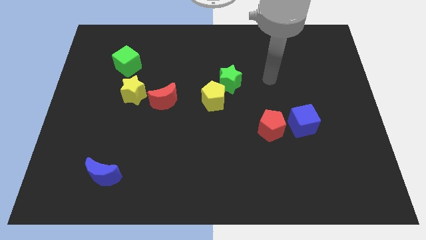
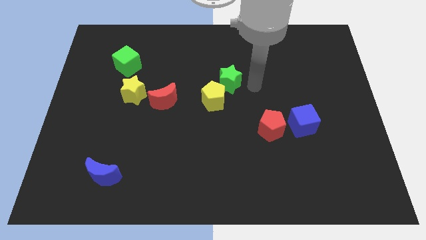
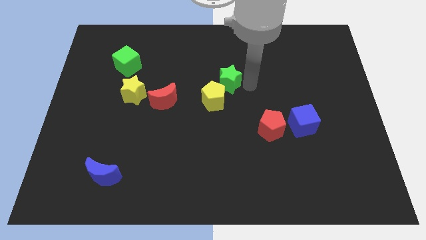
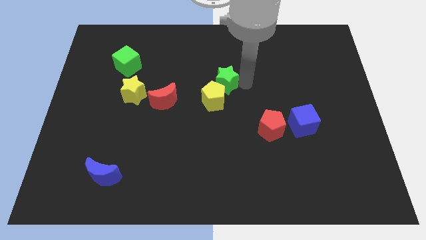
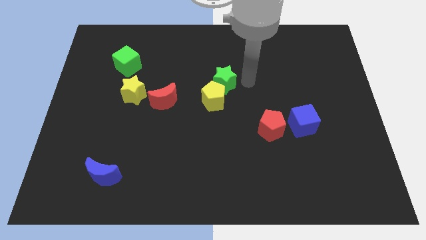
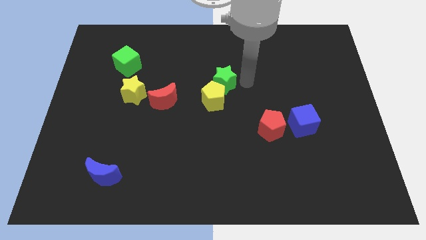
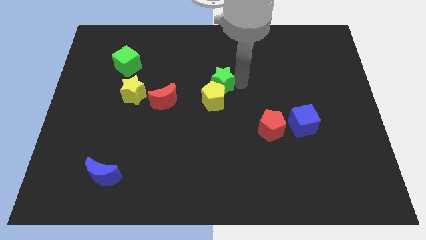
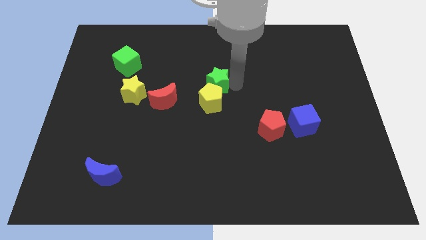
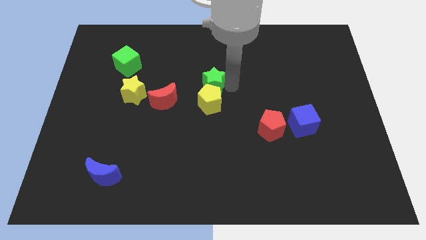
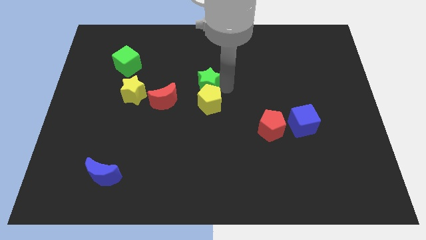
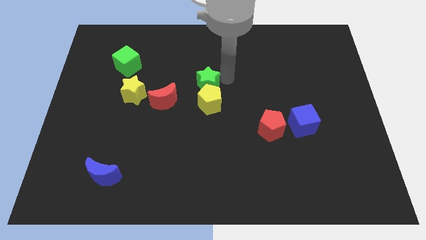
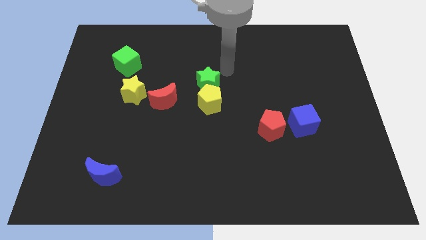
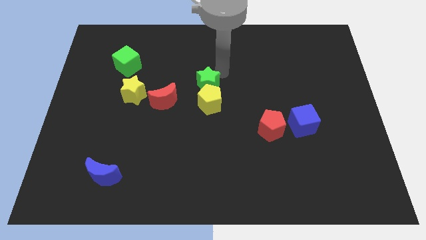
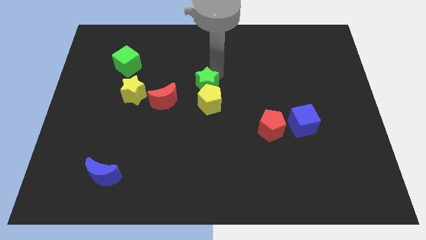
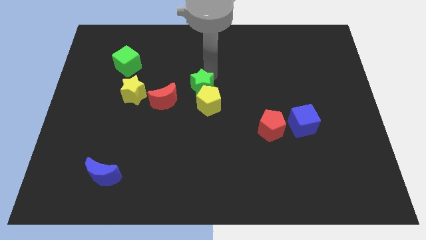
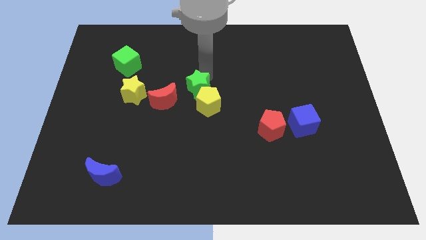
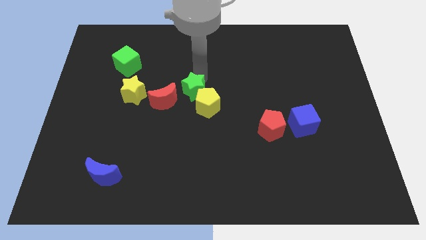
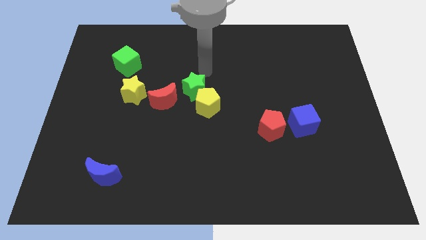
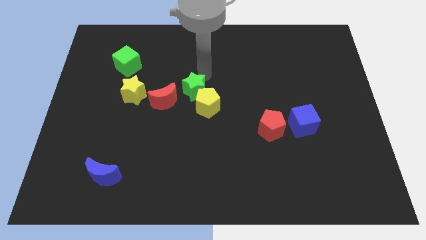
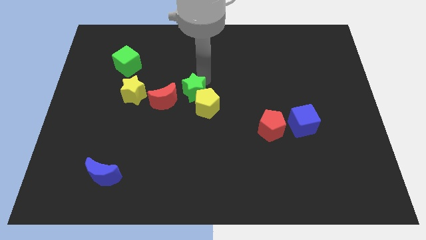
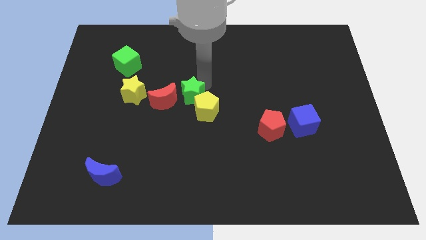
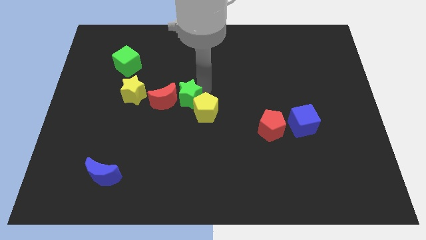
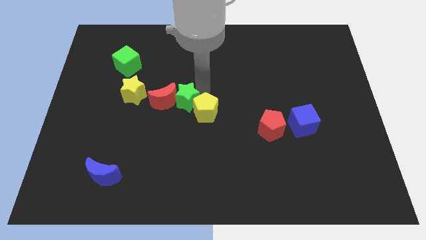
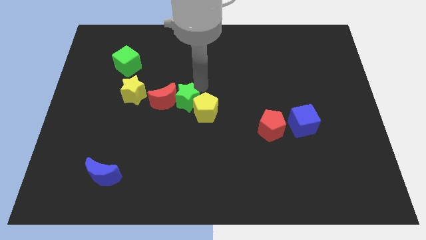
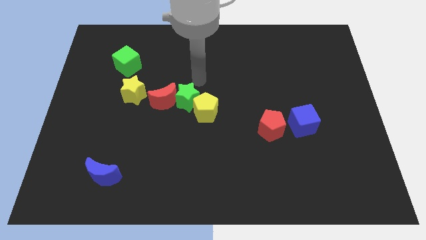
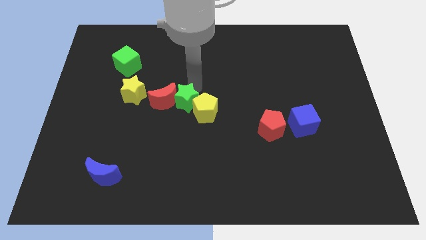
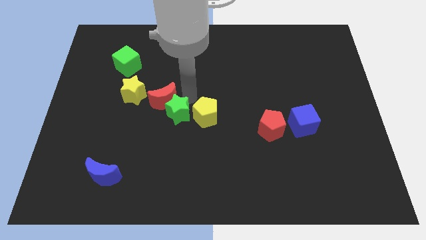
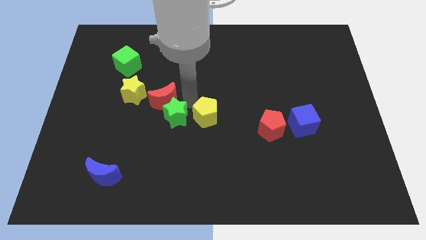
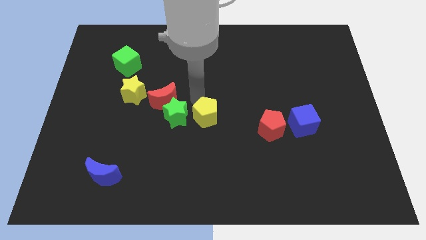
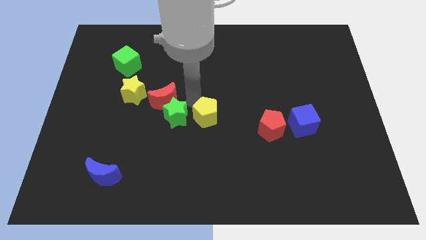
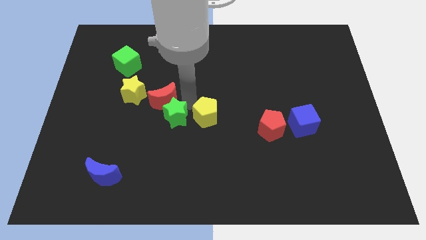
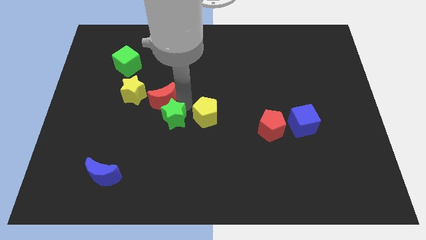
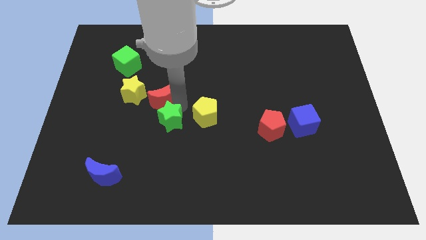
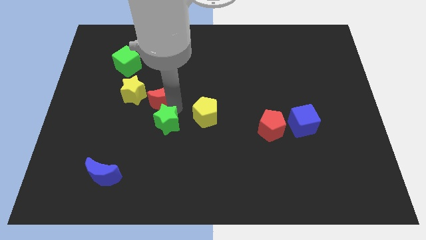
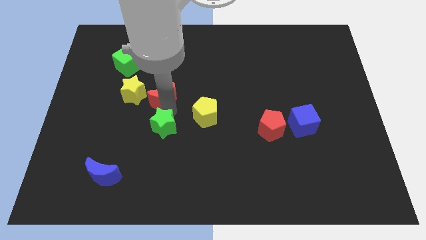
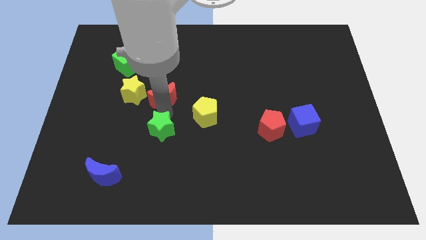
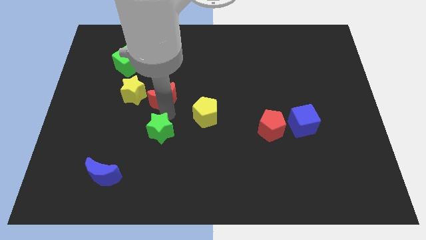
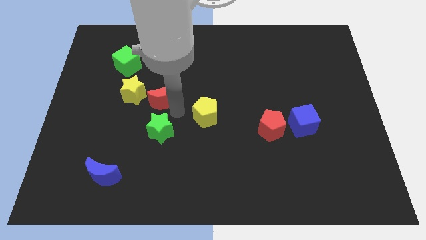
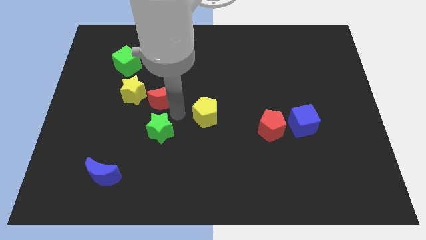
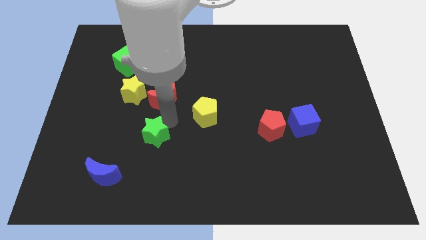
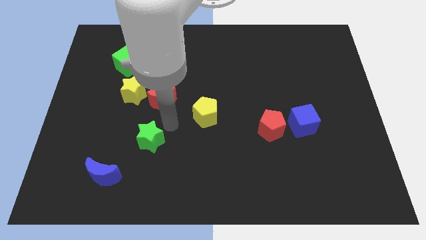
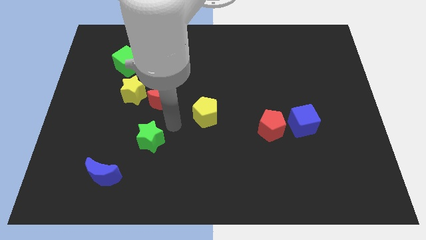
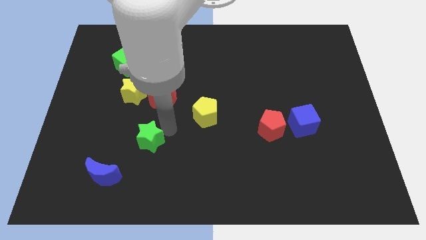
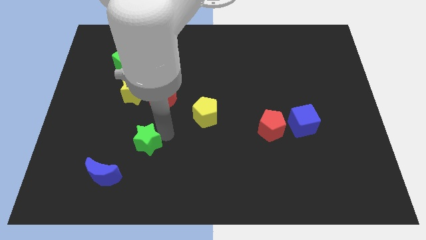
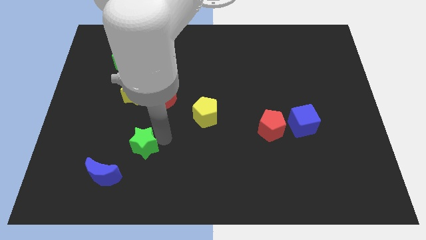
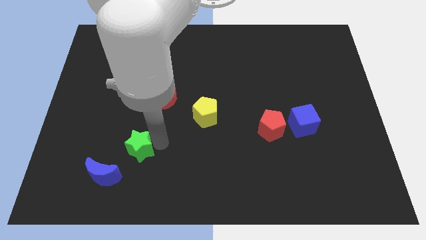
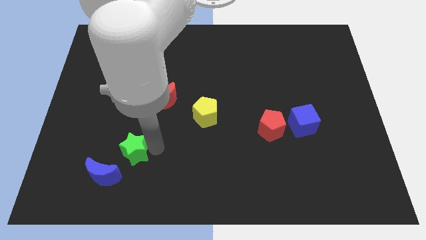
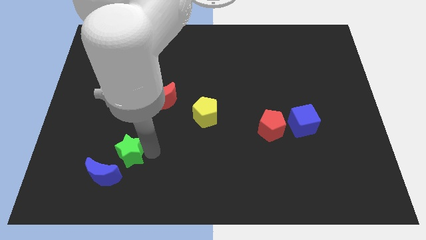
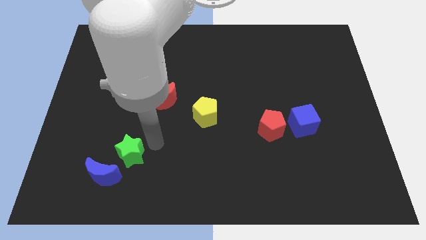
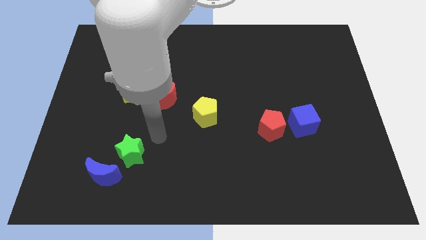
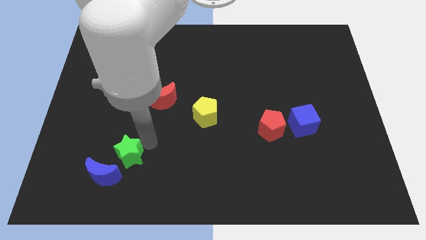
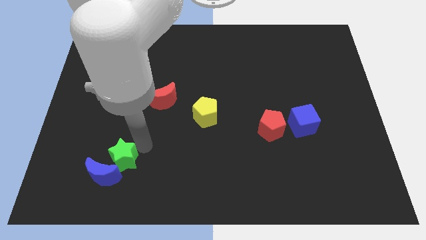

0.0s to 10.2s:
push the green star close to the blue moon

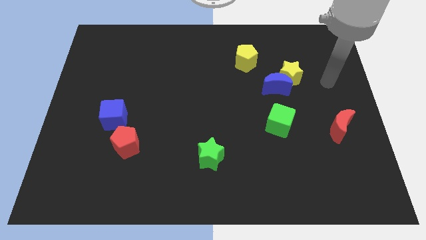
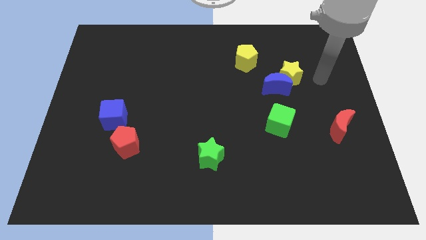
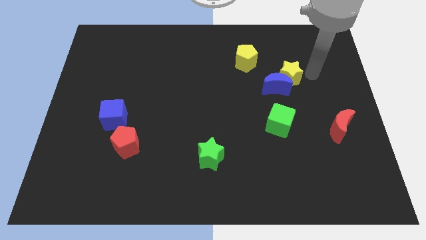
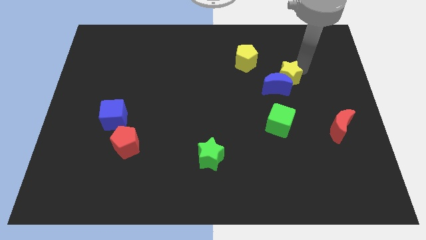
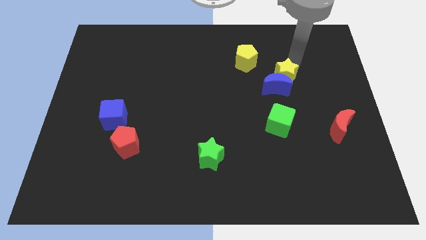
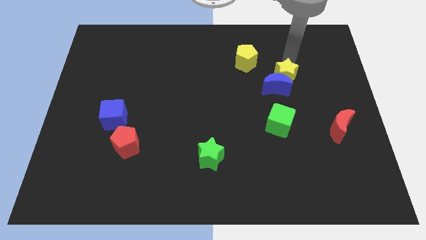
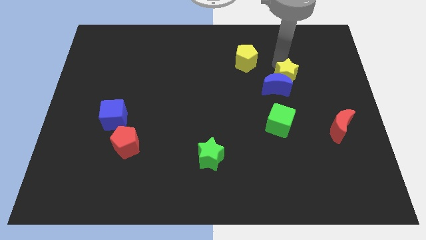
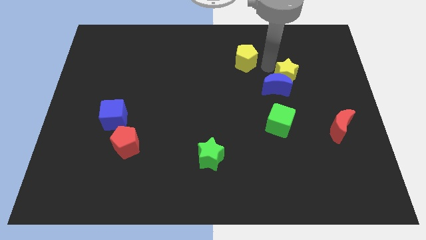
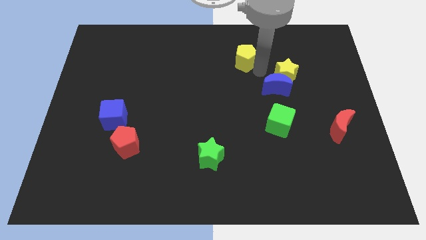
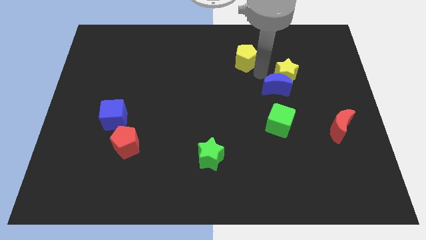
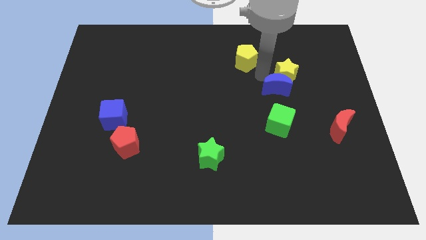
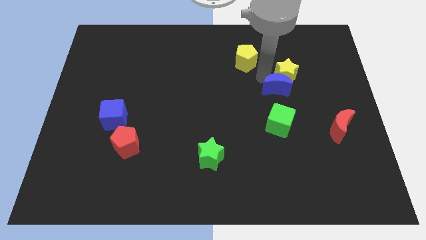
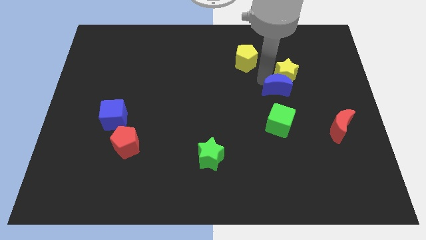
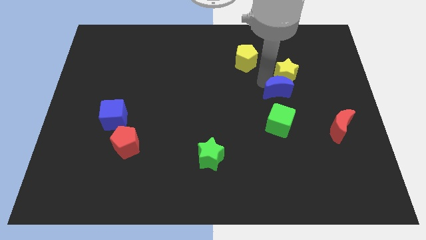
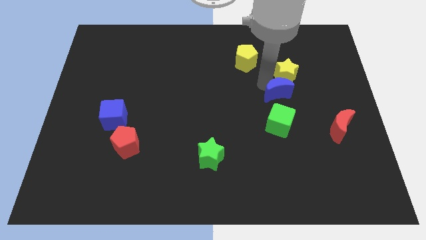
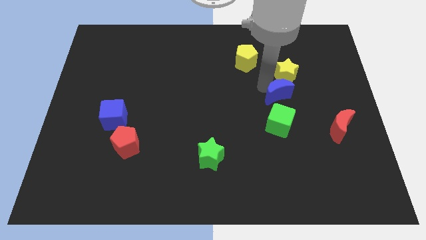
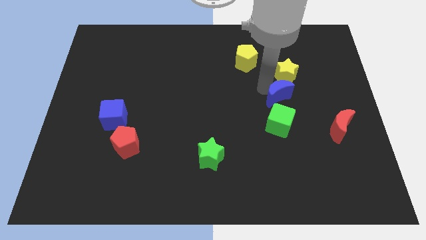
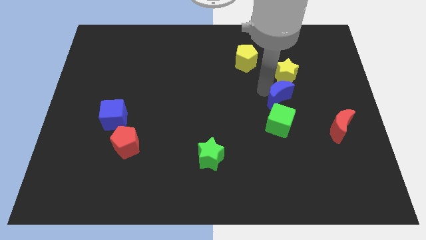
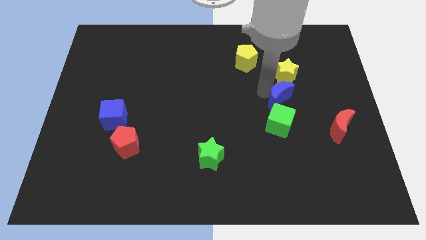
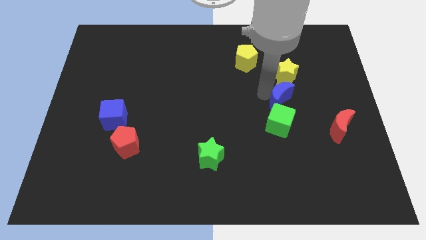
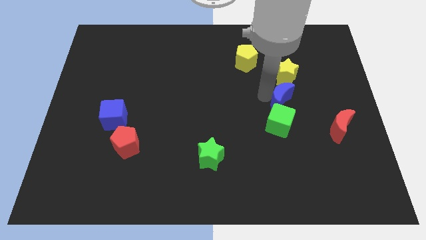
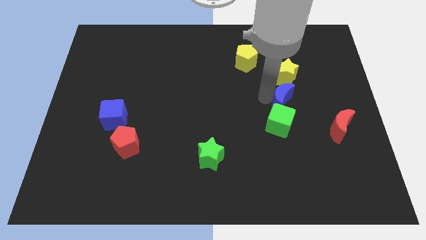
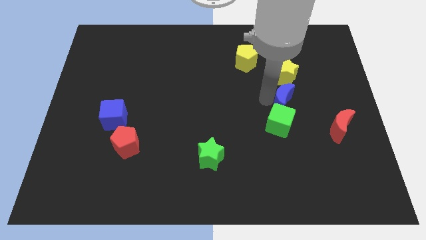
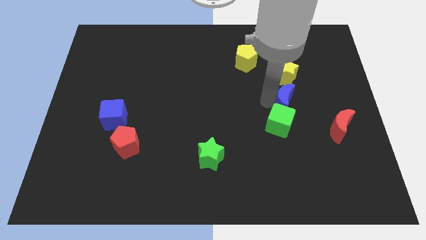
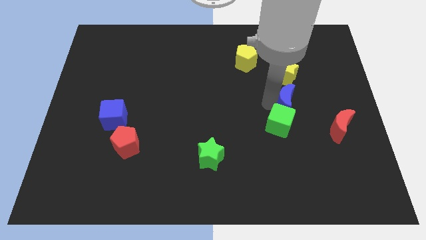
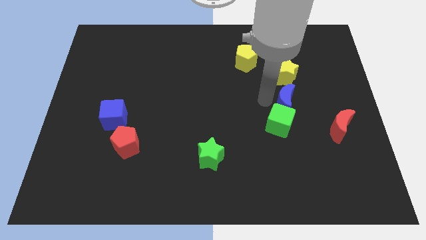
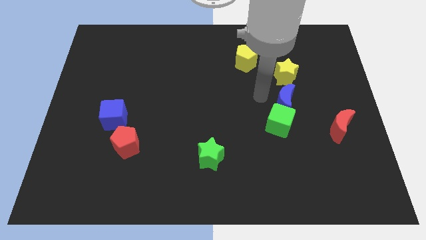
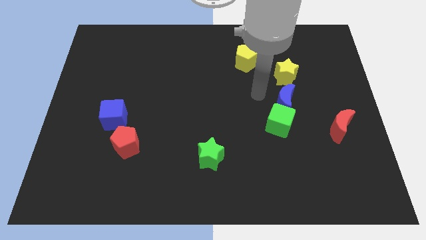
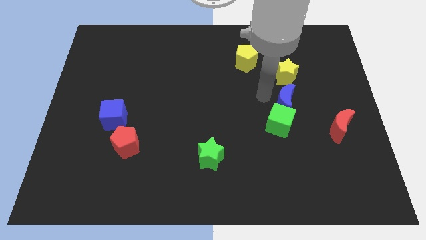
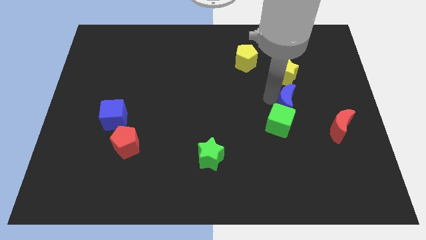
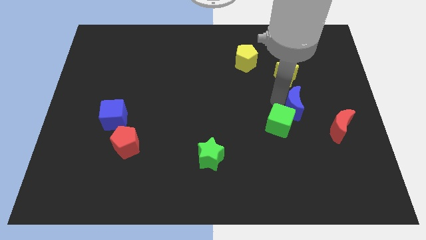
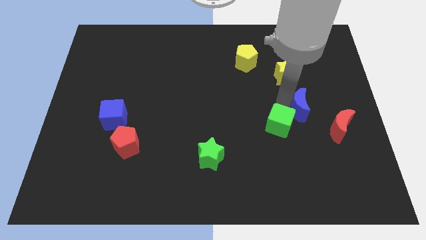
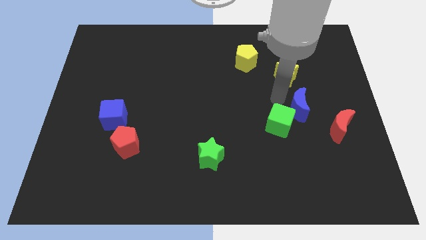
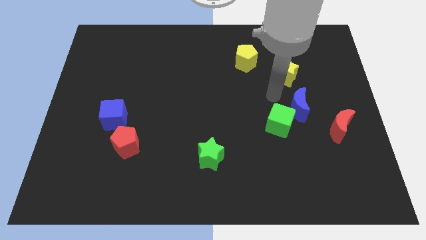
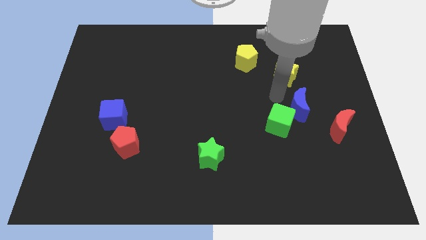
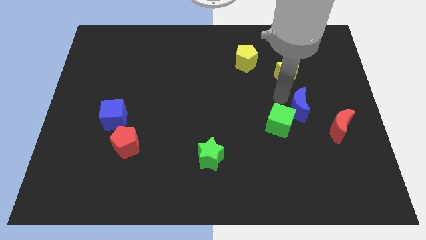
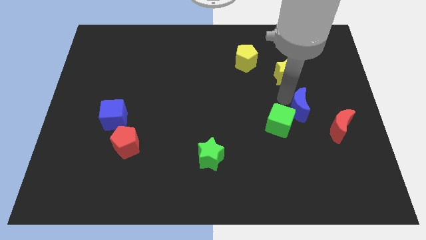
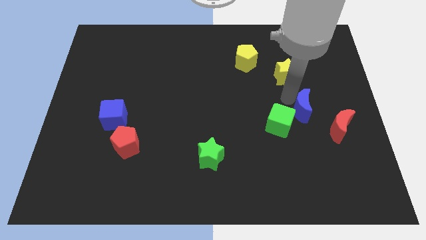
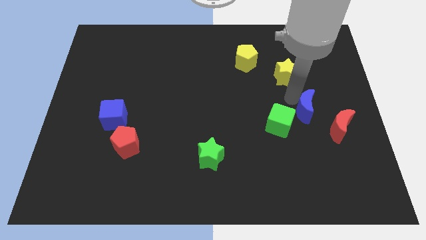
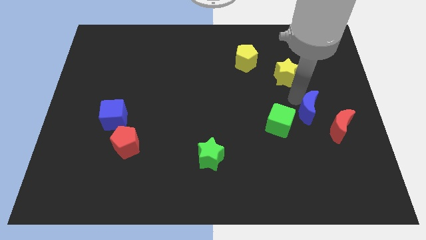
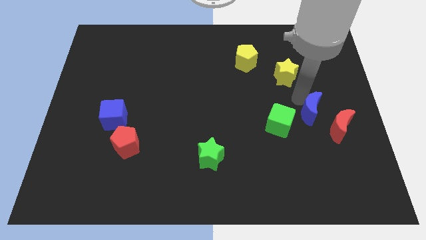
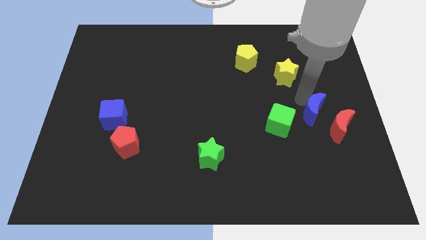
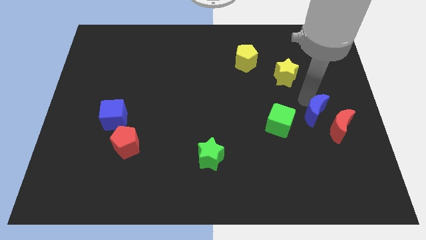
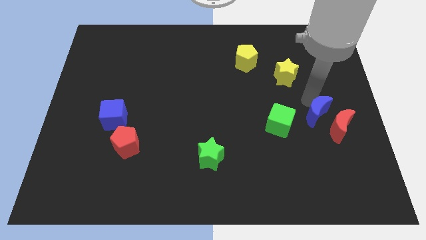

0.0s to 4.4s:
slide the blue moon towards the red moon
